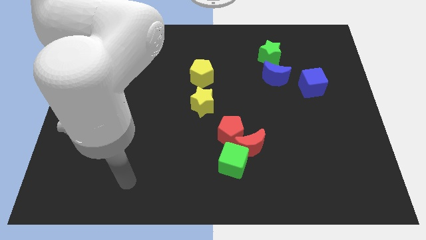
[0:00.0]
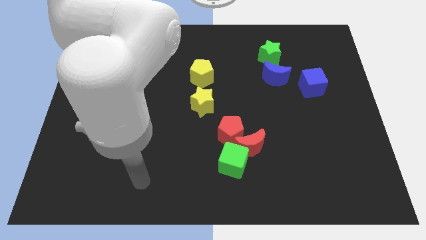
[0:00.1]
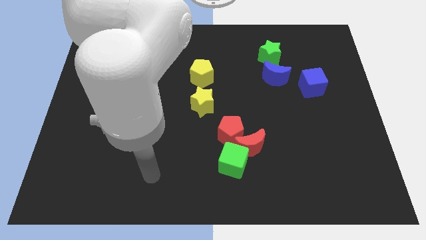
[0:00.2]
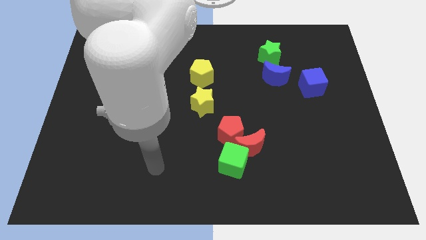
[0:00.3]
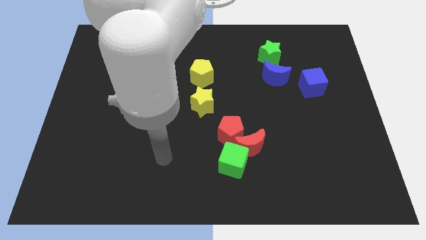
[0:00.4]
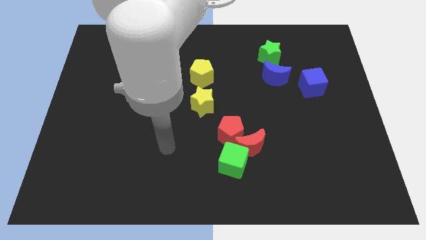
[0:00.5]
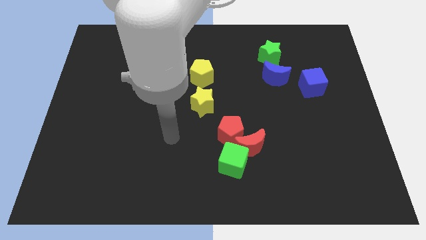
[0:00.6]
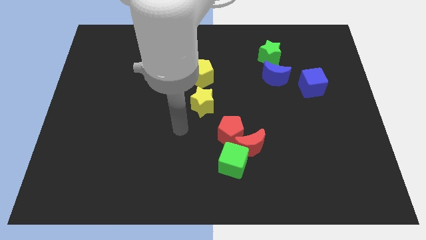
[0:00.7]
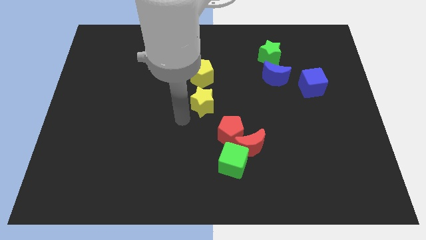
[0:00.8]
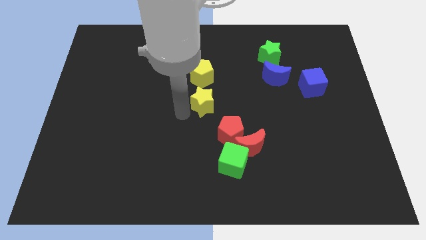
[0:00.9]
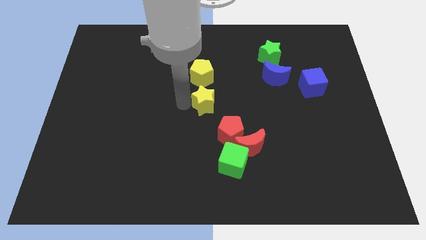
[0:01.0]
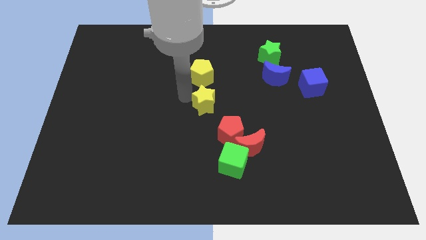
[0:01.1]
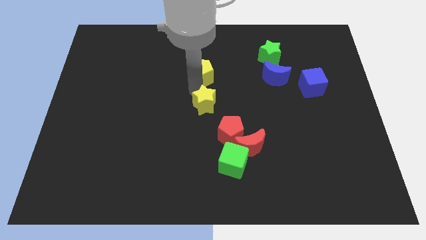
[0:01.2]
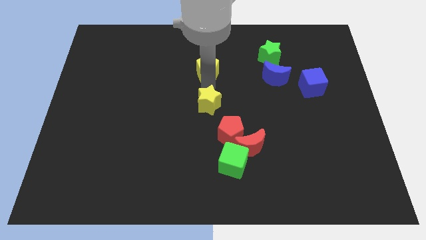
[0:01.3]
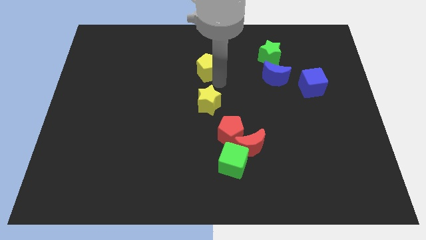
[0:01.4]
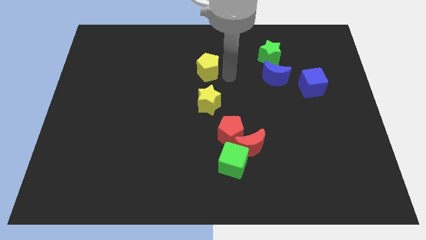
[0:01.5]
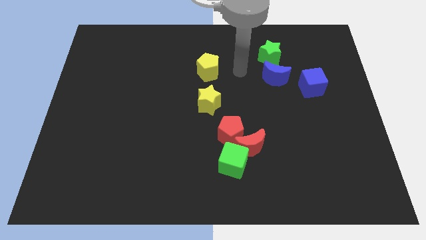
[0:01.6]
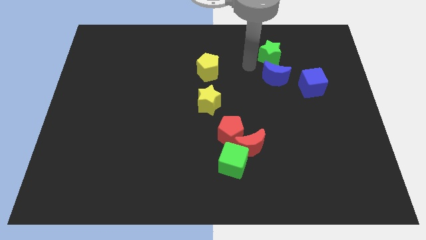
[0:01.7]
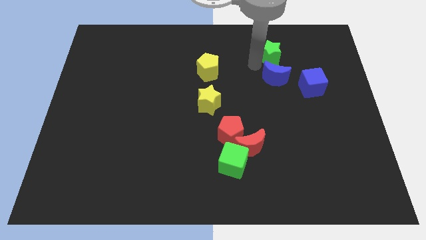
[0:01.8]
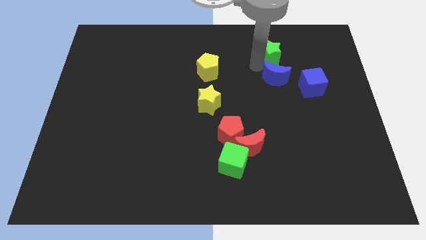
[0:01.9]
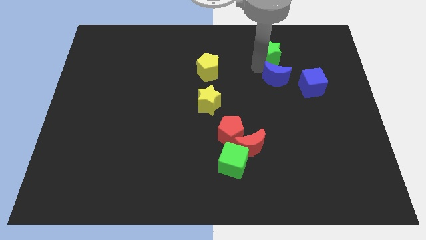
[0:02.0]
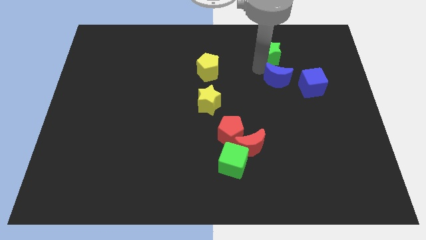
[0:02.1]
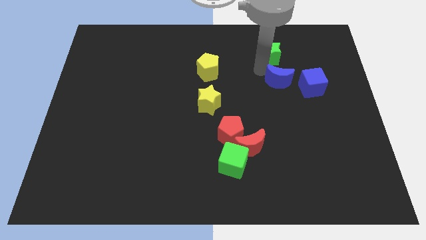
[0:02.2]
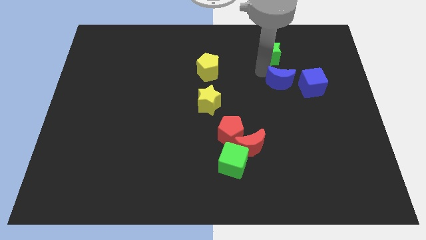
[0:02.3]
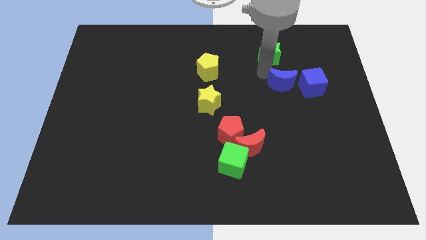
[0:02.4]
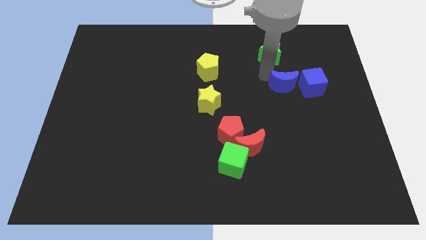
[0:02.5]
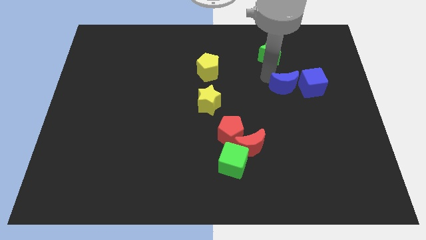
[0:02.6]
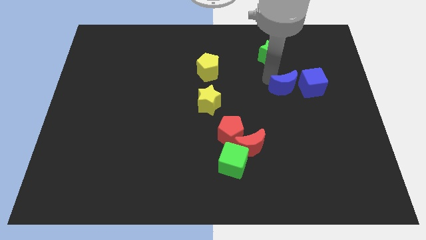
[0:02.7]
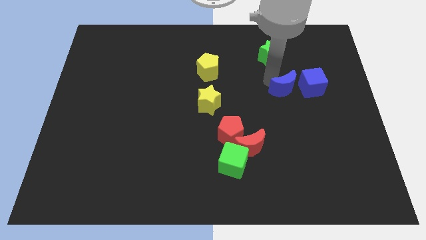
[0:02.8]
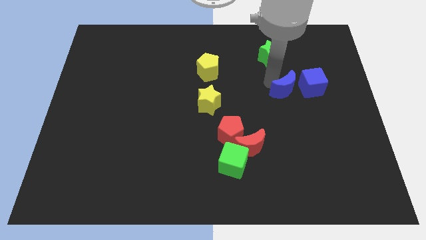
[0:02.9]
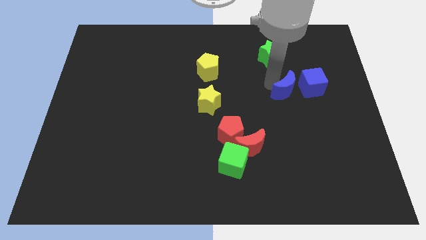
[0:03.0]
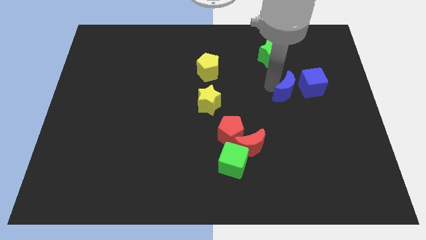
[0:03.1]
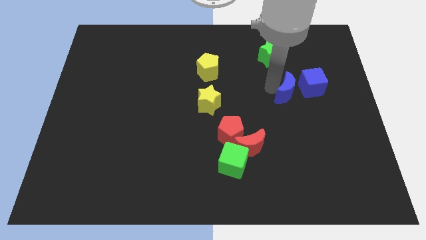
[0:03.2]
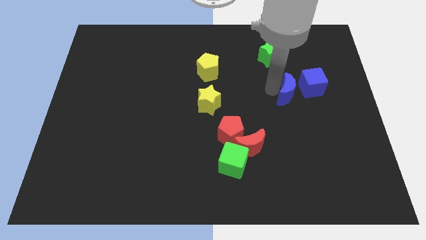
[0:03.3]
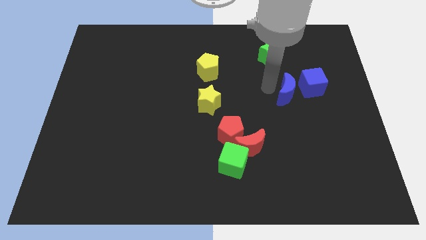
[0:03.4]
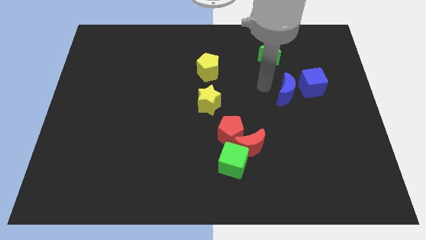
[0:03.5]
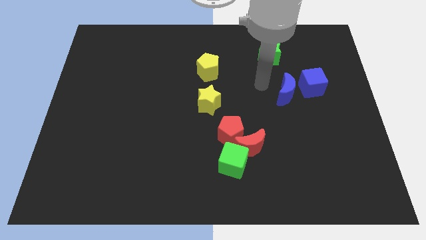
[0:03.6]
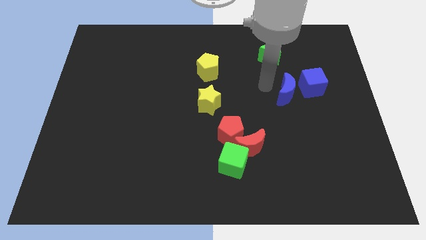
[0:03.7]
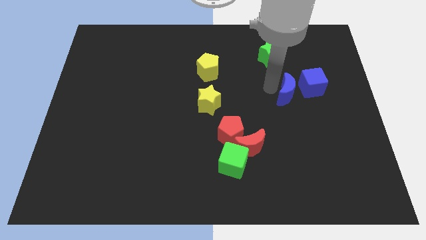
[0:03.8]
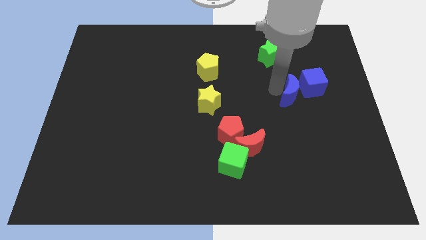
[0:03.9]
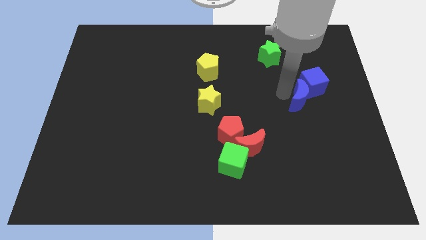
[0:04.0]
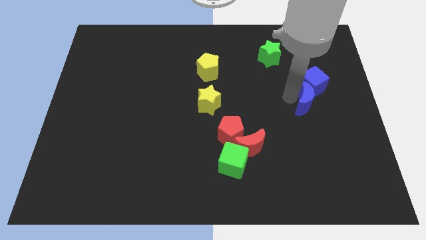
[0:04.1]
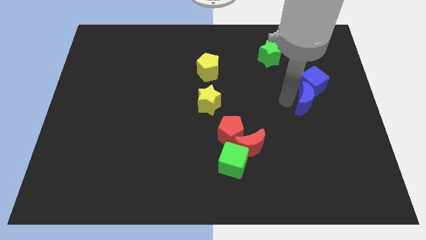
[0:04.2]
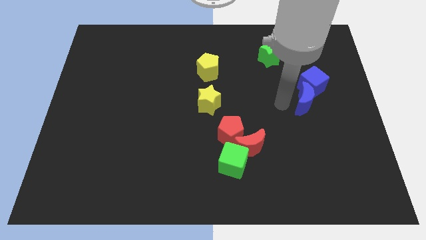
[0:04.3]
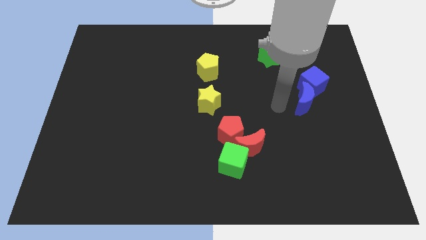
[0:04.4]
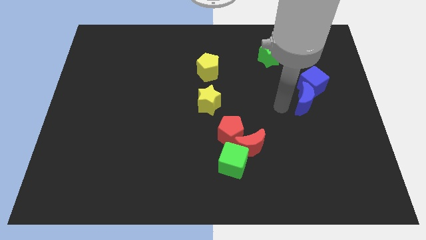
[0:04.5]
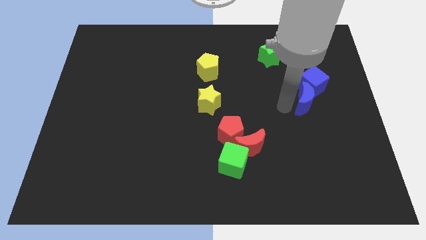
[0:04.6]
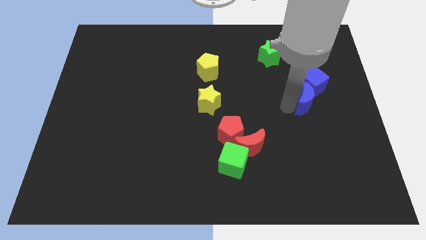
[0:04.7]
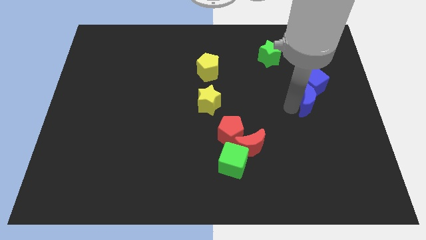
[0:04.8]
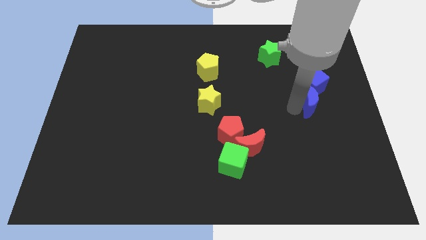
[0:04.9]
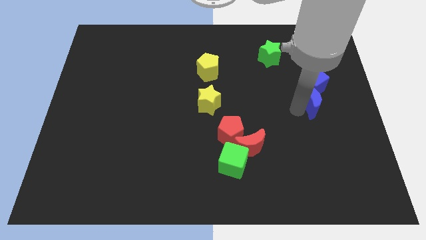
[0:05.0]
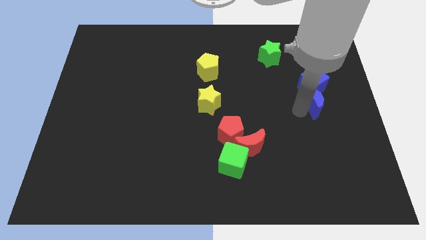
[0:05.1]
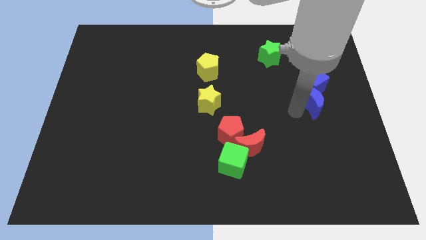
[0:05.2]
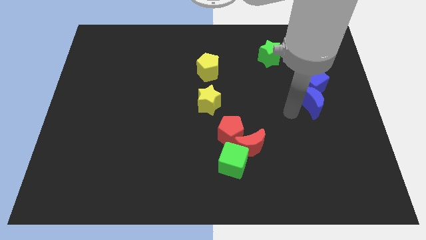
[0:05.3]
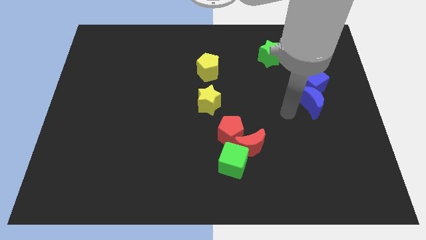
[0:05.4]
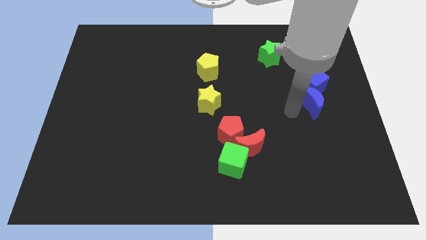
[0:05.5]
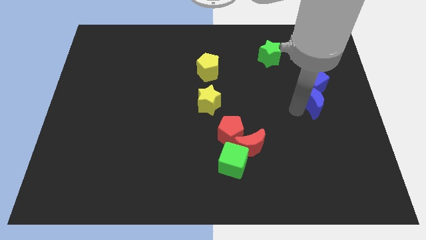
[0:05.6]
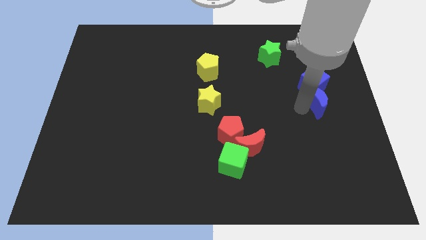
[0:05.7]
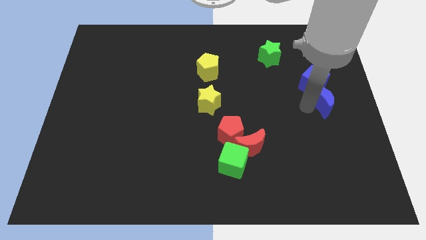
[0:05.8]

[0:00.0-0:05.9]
slide the blue moon to the right side

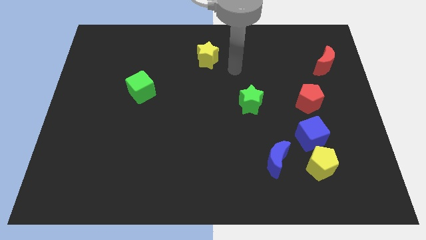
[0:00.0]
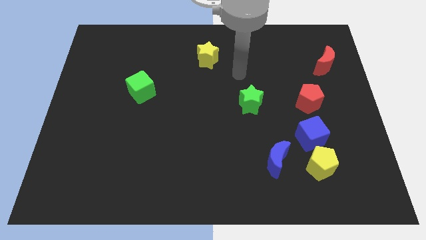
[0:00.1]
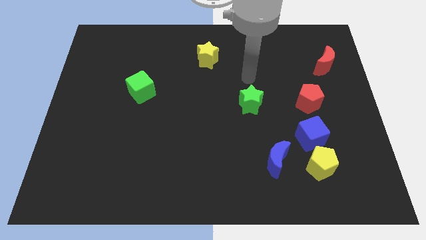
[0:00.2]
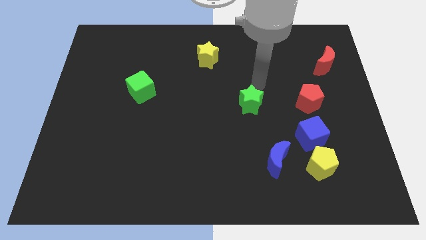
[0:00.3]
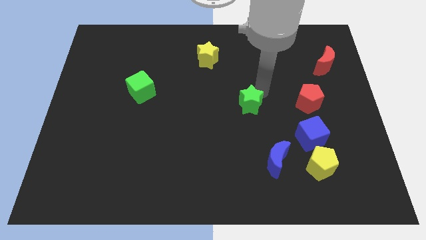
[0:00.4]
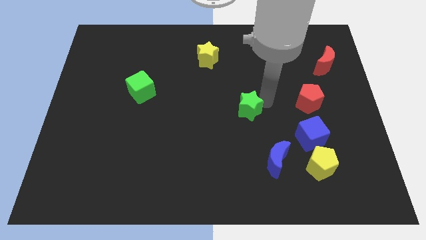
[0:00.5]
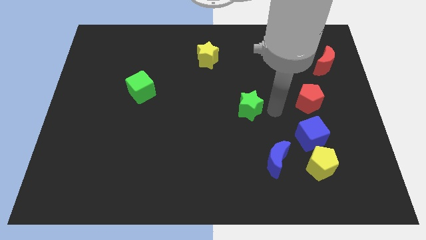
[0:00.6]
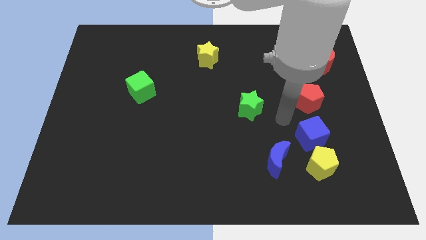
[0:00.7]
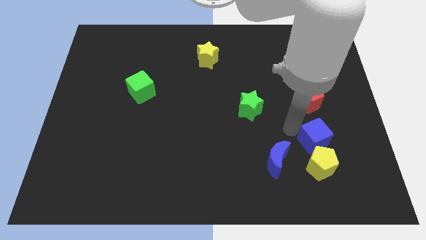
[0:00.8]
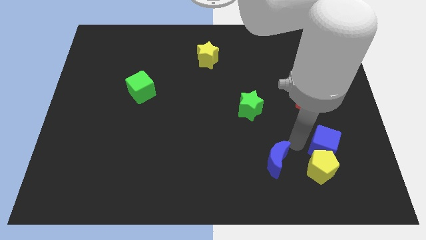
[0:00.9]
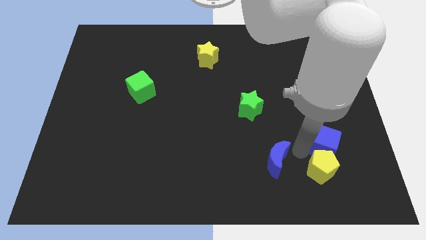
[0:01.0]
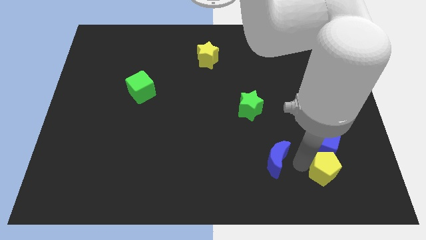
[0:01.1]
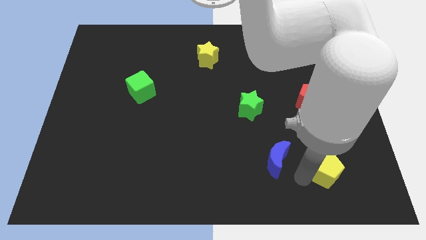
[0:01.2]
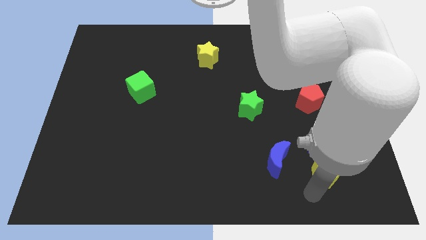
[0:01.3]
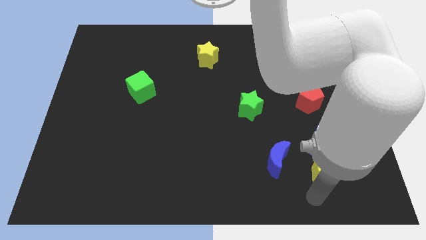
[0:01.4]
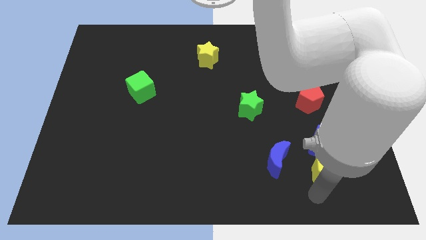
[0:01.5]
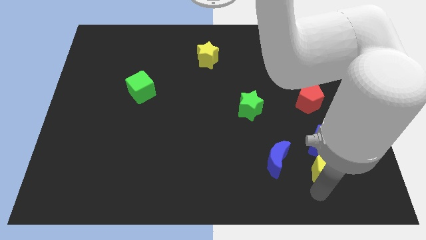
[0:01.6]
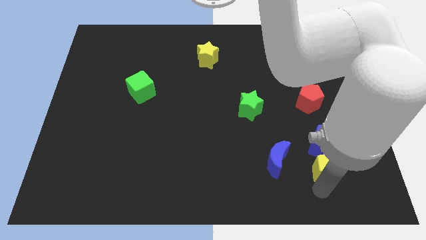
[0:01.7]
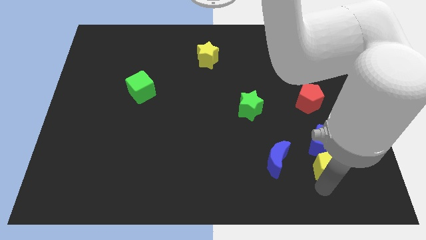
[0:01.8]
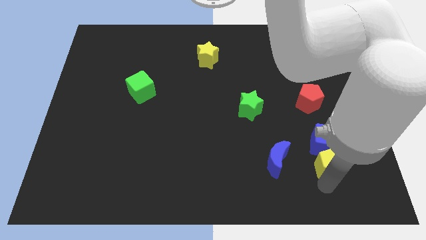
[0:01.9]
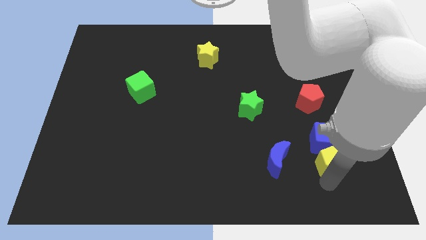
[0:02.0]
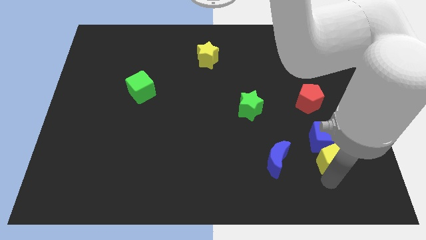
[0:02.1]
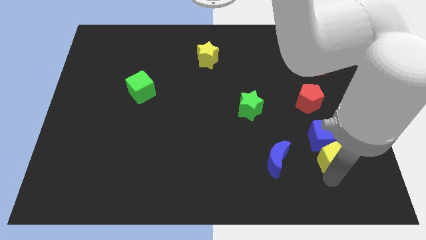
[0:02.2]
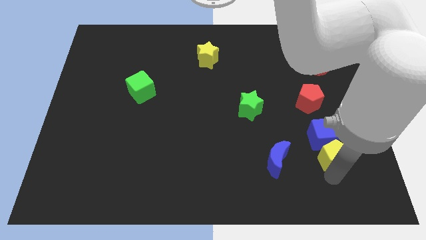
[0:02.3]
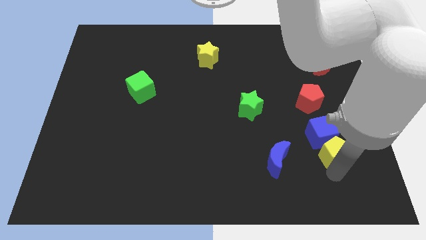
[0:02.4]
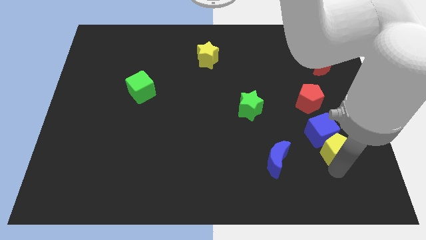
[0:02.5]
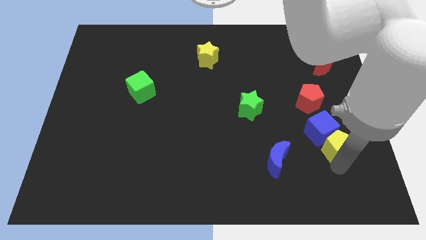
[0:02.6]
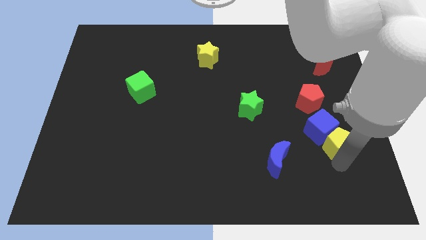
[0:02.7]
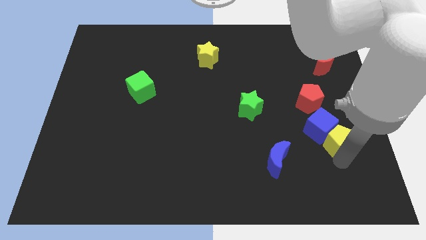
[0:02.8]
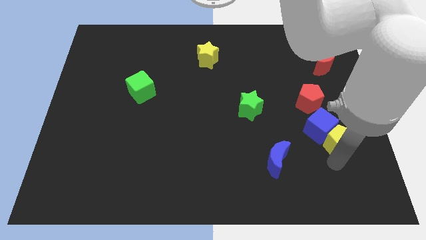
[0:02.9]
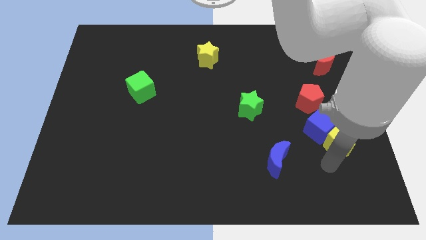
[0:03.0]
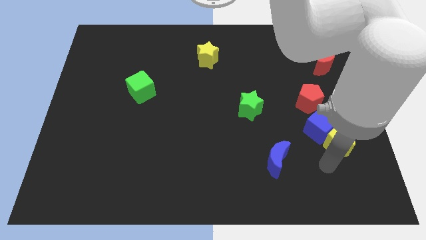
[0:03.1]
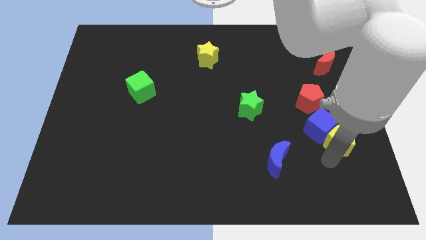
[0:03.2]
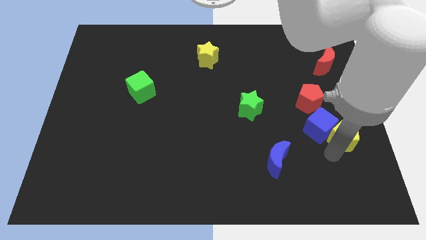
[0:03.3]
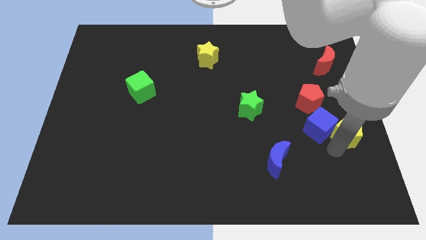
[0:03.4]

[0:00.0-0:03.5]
slide the yellow pentagon to the right side
